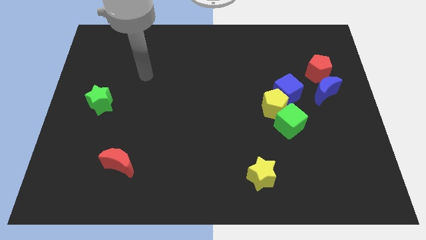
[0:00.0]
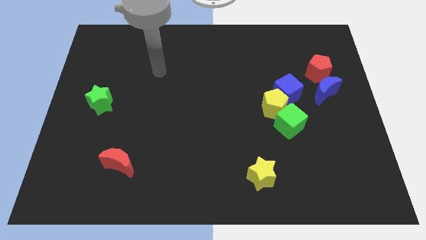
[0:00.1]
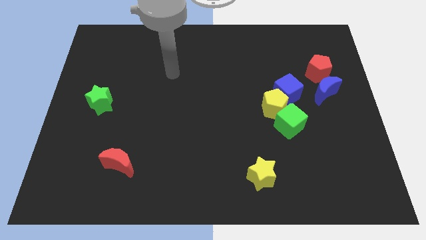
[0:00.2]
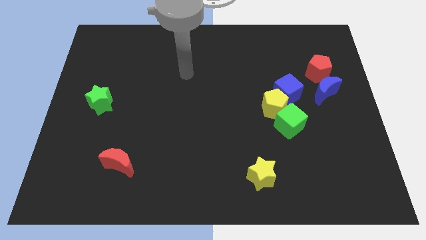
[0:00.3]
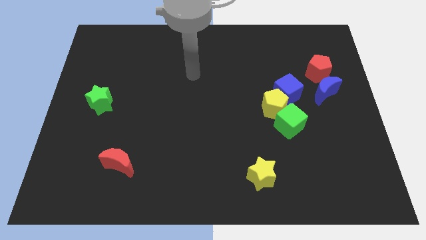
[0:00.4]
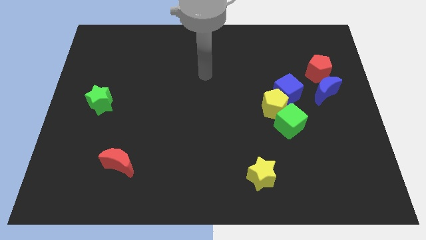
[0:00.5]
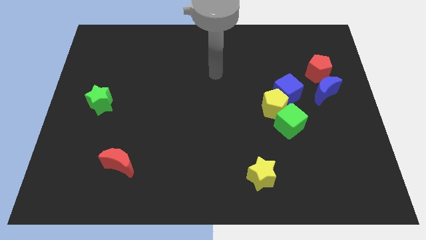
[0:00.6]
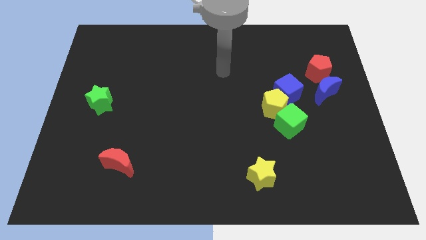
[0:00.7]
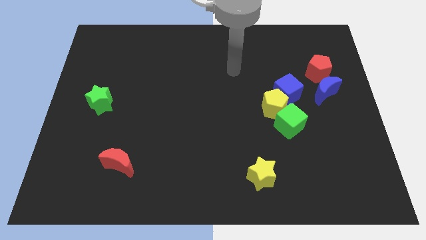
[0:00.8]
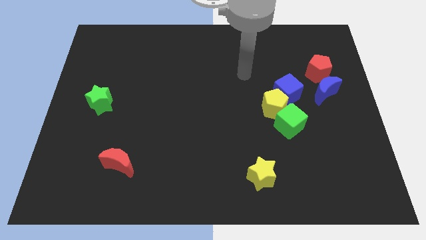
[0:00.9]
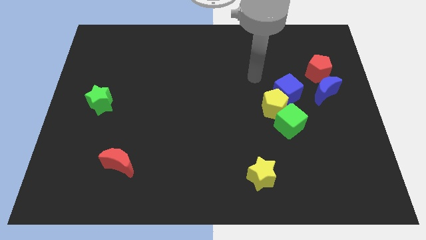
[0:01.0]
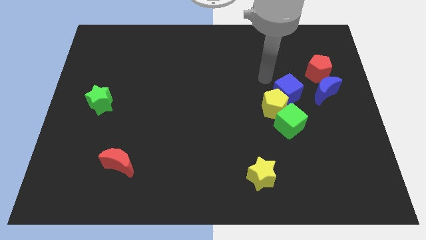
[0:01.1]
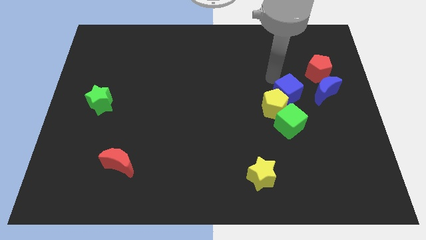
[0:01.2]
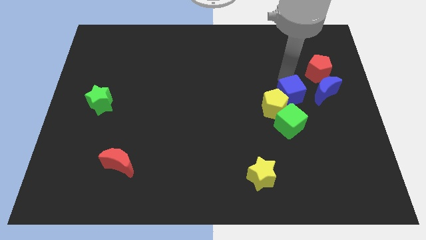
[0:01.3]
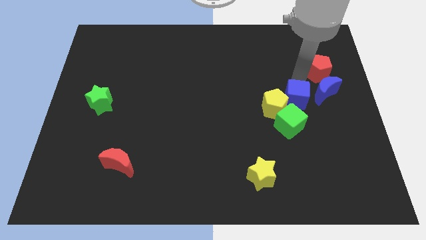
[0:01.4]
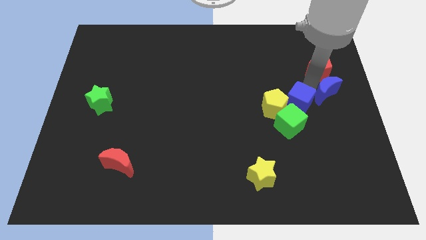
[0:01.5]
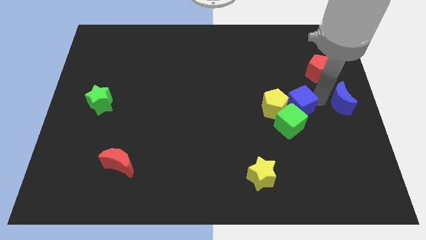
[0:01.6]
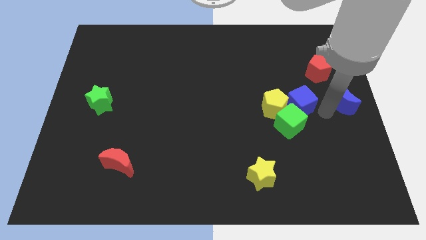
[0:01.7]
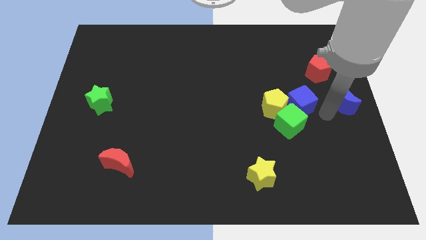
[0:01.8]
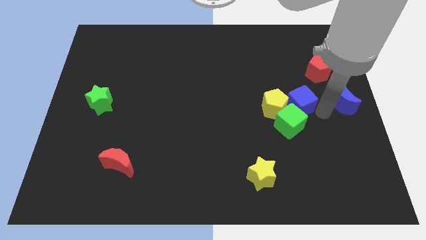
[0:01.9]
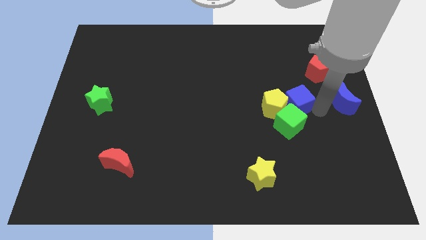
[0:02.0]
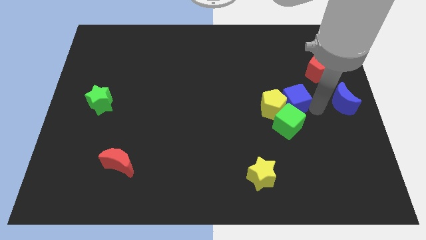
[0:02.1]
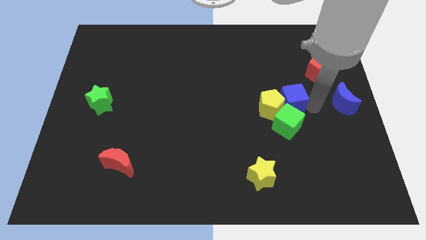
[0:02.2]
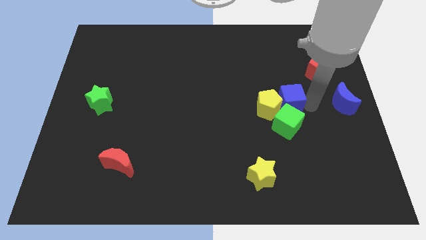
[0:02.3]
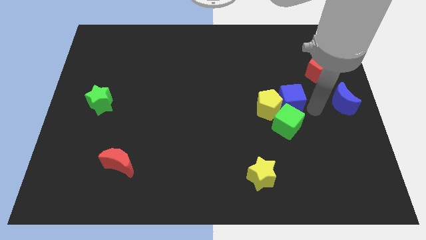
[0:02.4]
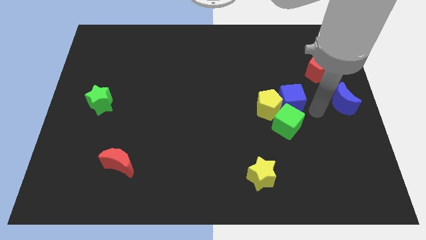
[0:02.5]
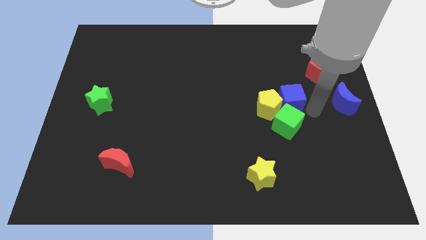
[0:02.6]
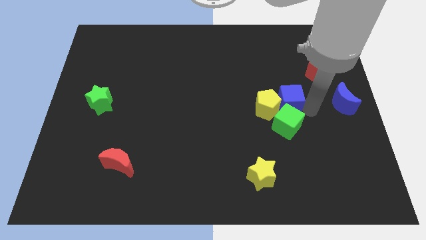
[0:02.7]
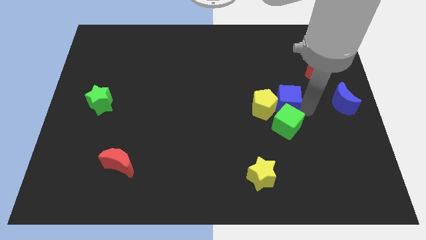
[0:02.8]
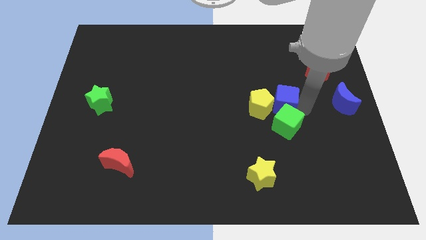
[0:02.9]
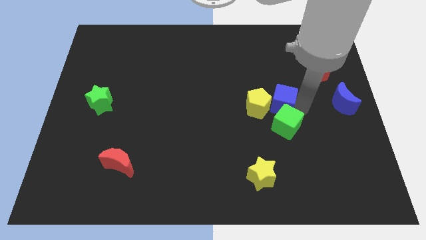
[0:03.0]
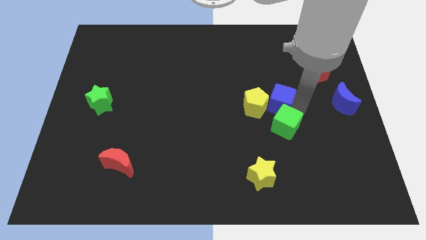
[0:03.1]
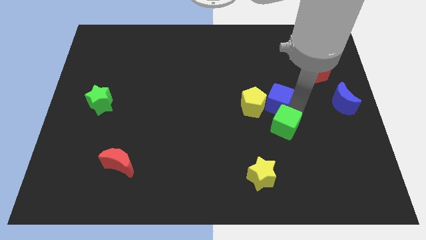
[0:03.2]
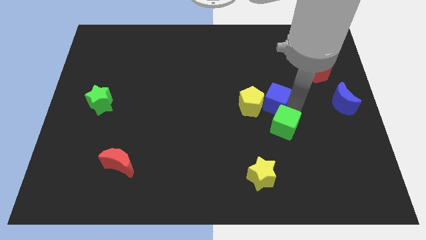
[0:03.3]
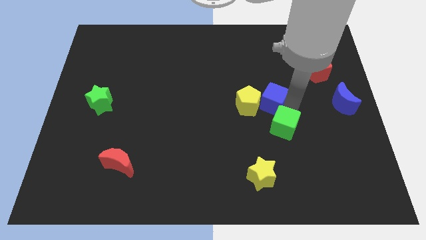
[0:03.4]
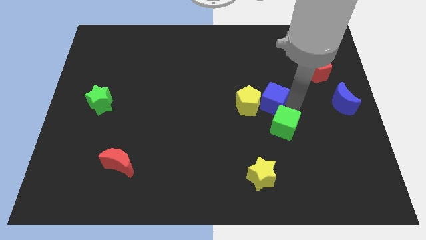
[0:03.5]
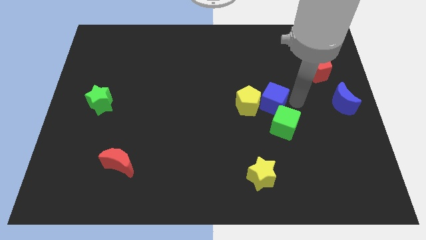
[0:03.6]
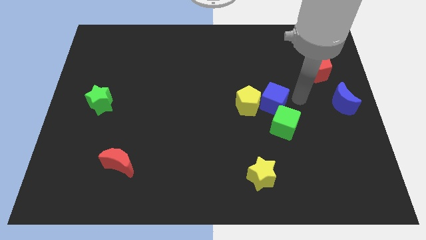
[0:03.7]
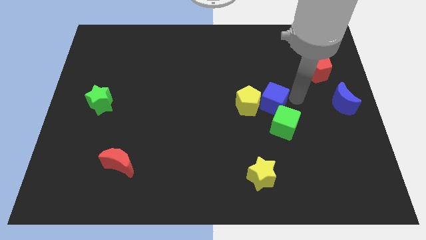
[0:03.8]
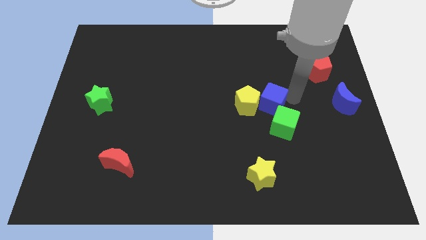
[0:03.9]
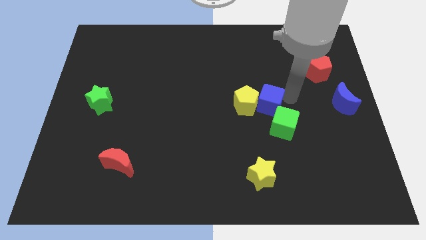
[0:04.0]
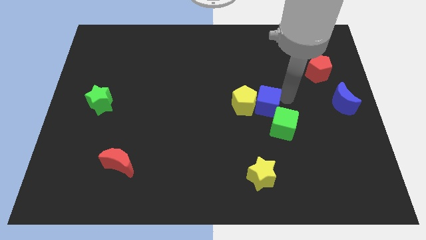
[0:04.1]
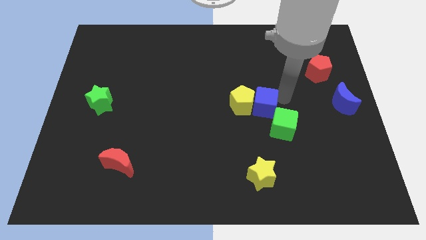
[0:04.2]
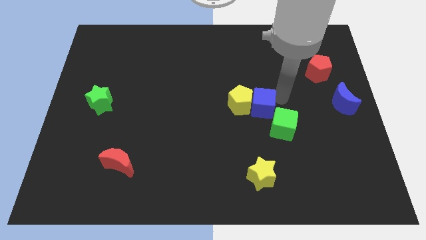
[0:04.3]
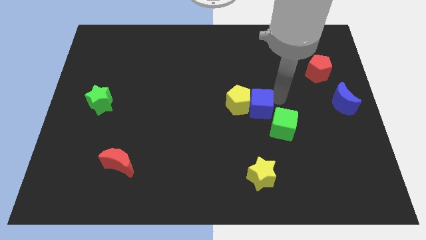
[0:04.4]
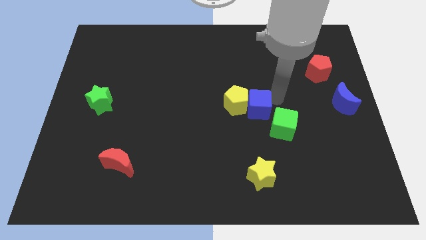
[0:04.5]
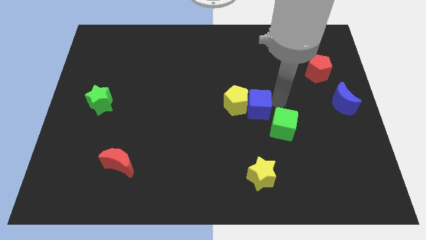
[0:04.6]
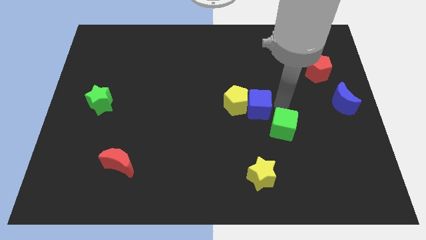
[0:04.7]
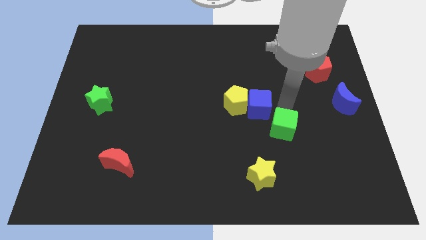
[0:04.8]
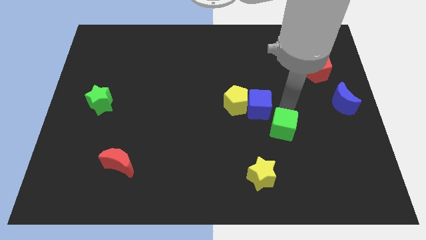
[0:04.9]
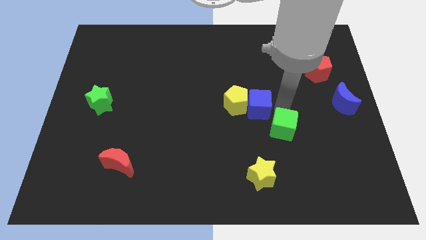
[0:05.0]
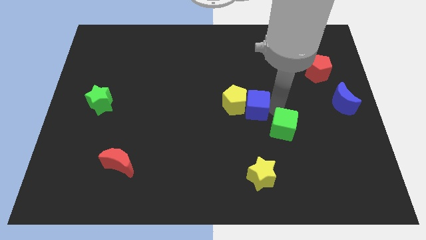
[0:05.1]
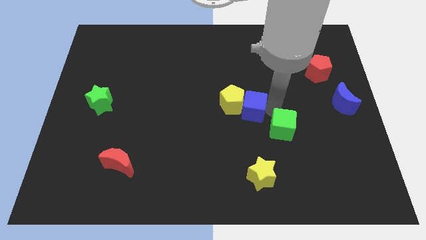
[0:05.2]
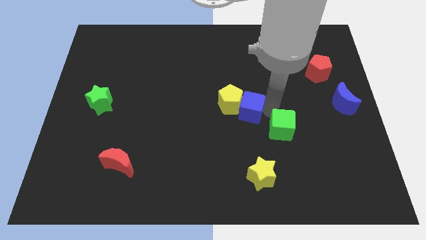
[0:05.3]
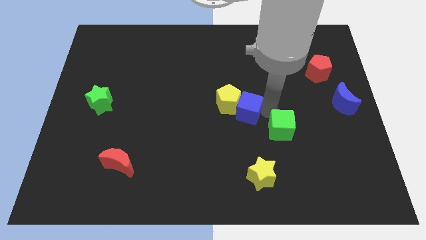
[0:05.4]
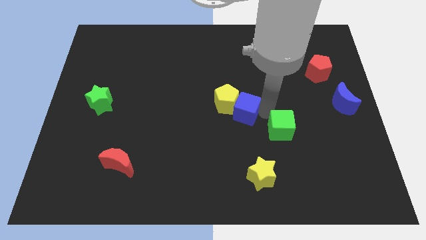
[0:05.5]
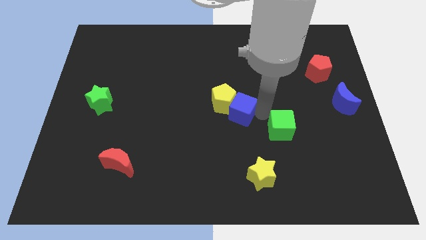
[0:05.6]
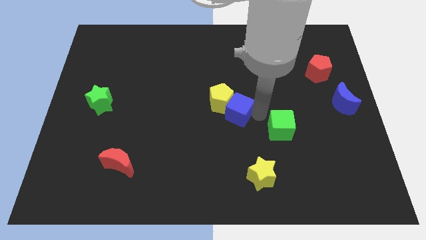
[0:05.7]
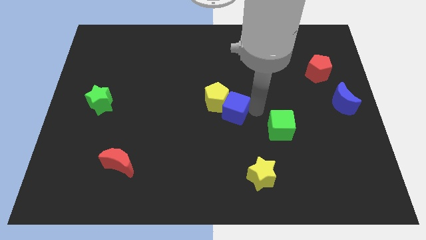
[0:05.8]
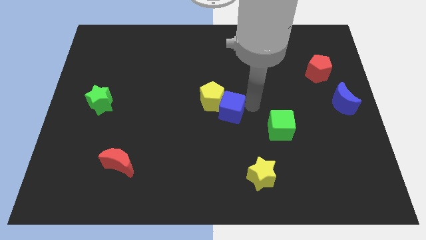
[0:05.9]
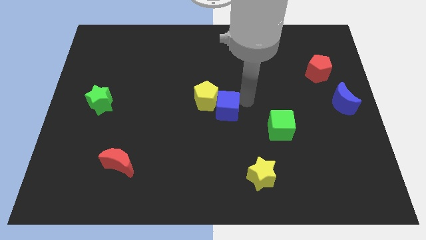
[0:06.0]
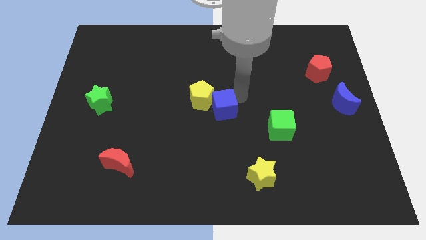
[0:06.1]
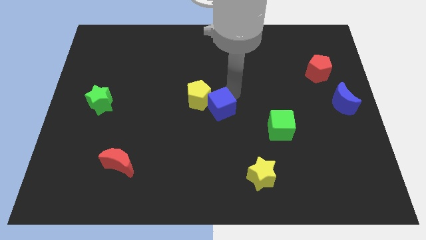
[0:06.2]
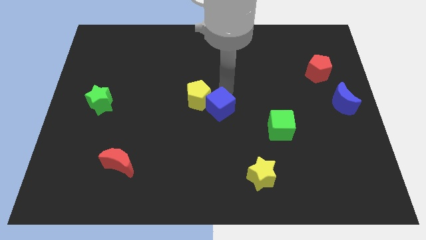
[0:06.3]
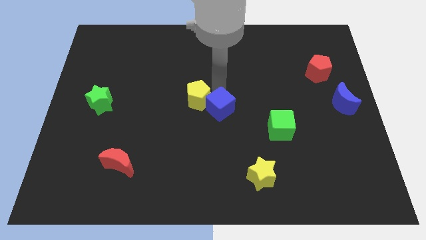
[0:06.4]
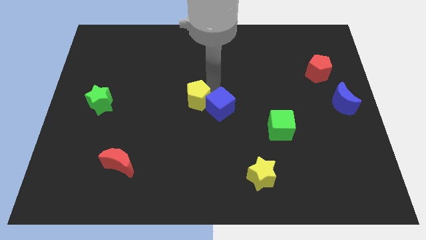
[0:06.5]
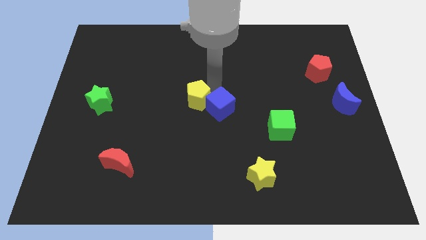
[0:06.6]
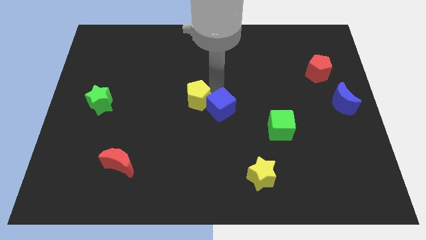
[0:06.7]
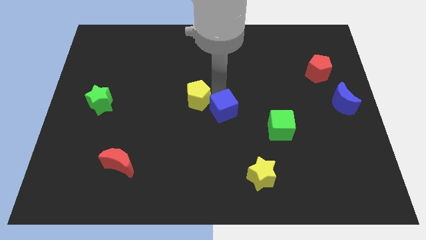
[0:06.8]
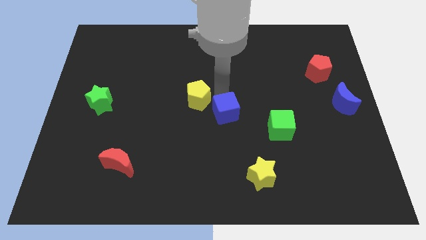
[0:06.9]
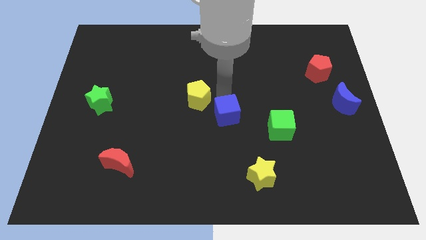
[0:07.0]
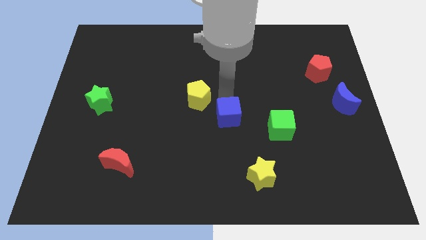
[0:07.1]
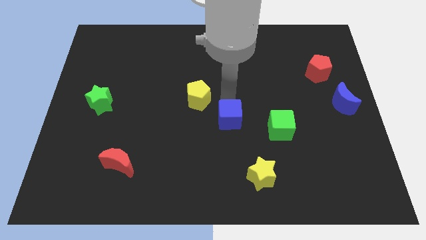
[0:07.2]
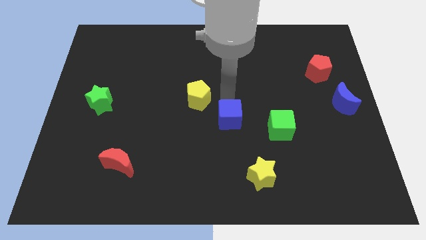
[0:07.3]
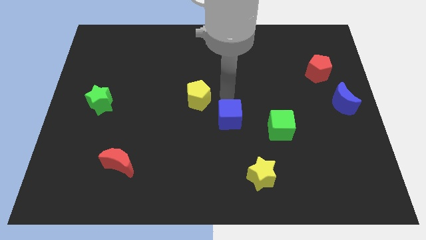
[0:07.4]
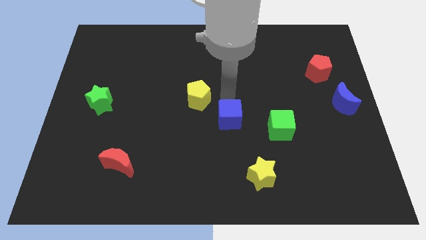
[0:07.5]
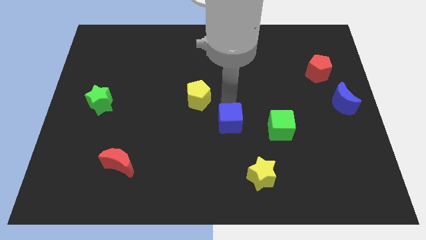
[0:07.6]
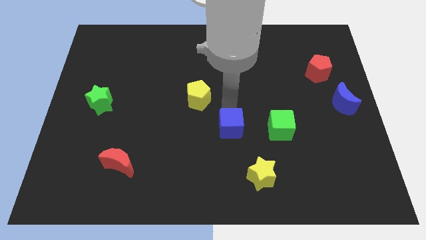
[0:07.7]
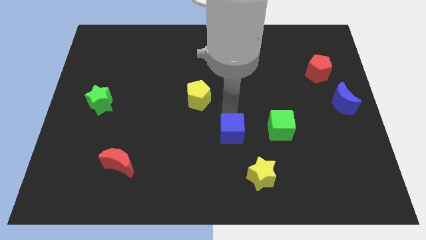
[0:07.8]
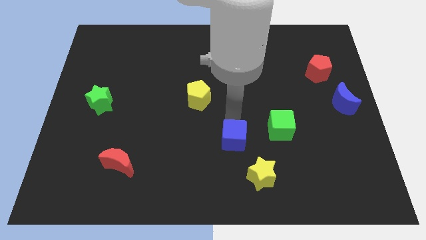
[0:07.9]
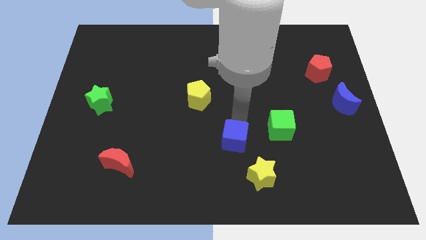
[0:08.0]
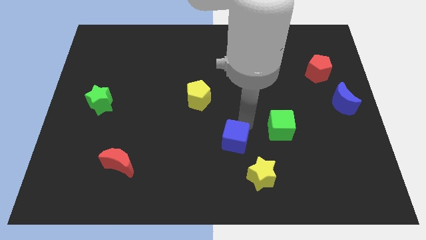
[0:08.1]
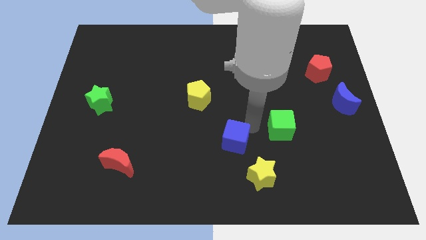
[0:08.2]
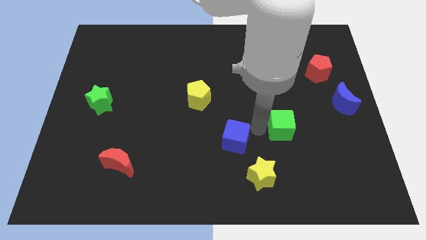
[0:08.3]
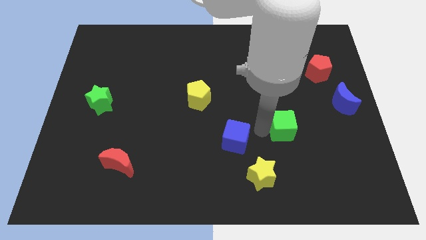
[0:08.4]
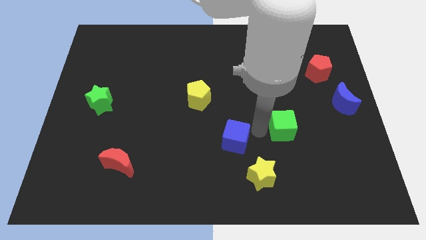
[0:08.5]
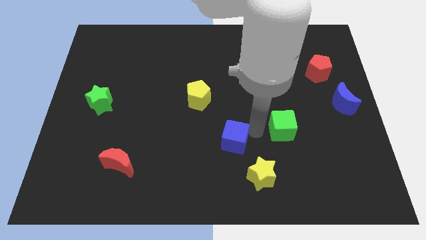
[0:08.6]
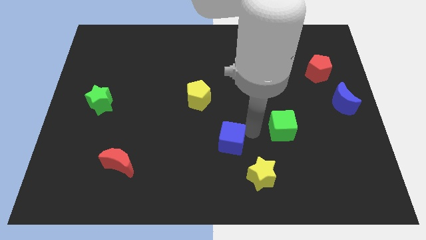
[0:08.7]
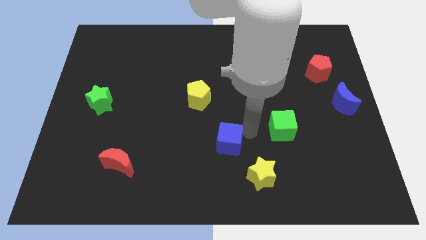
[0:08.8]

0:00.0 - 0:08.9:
push the blue cube downwards and left
